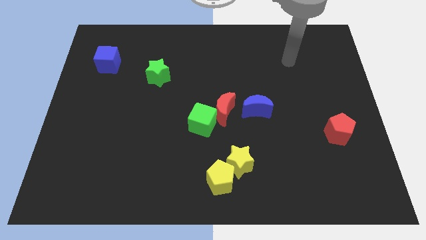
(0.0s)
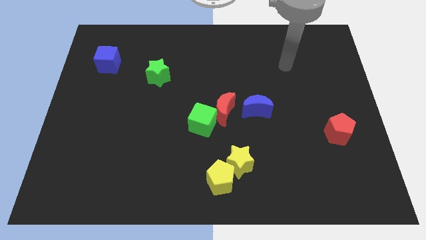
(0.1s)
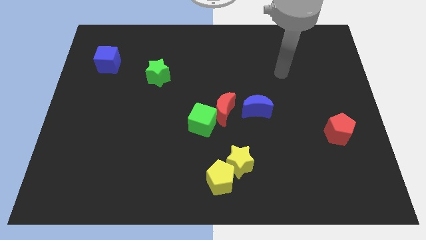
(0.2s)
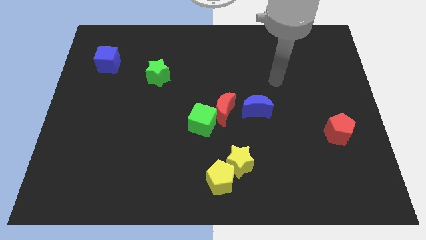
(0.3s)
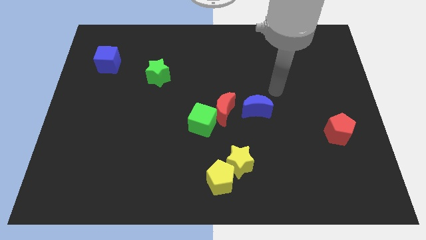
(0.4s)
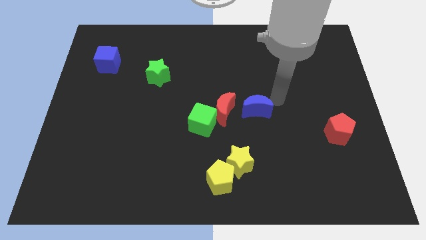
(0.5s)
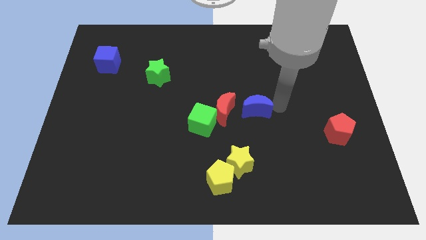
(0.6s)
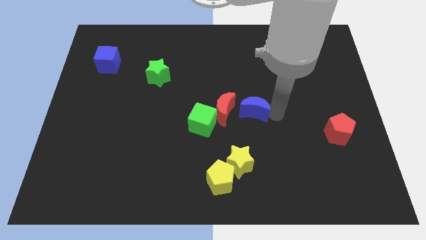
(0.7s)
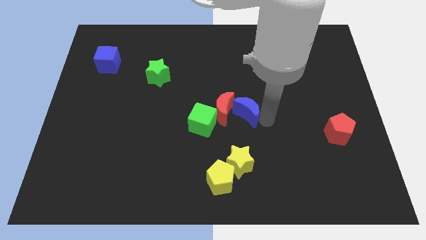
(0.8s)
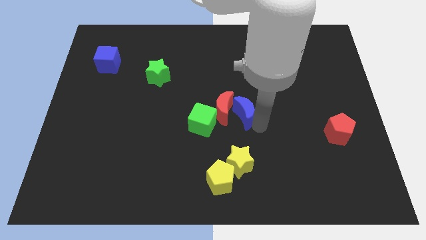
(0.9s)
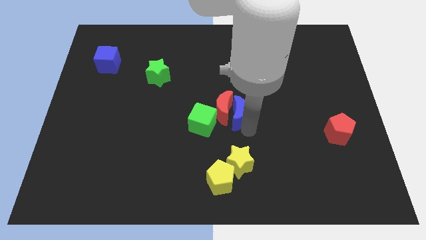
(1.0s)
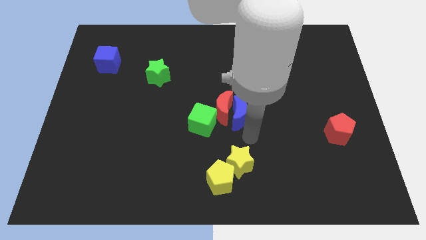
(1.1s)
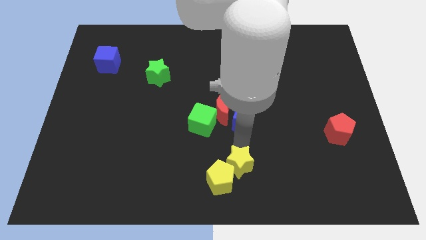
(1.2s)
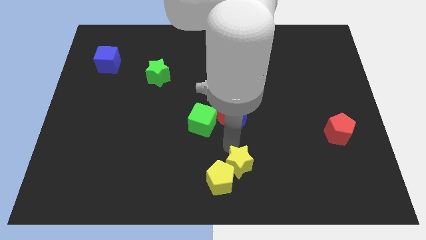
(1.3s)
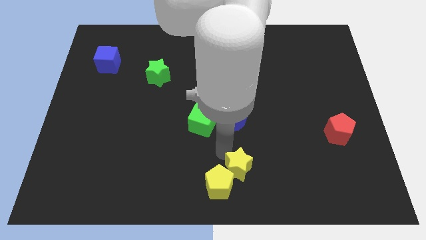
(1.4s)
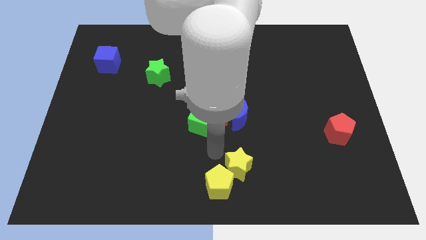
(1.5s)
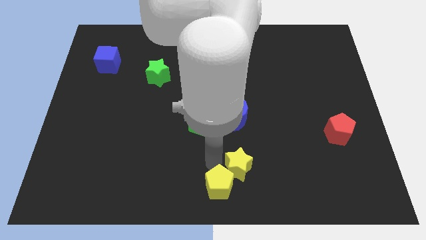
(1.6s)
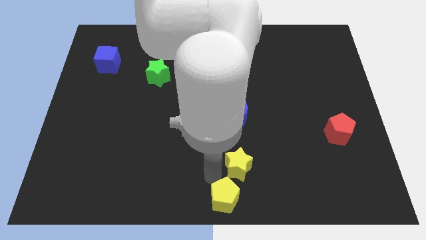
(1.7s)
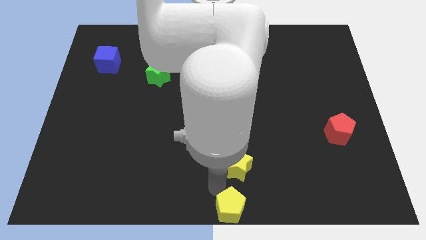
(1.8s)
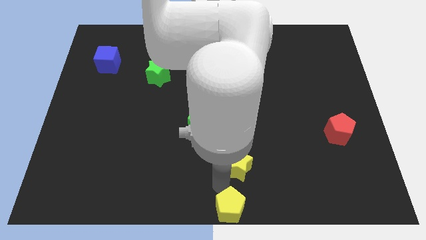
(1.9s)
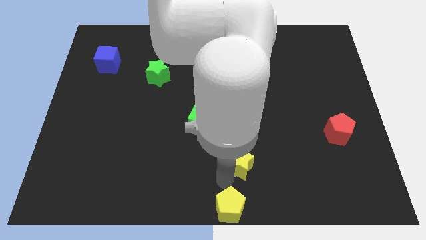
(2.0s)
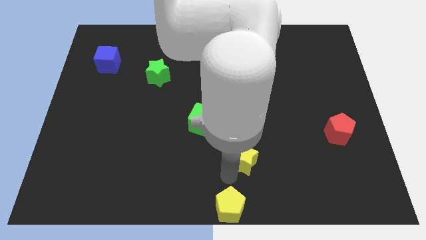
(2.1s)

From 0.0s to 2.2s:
separate the yellow star from the yellow pentagon

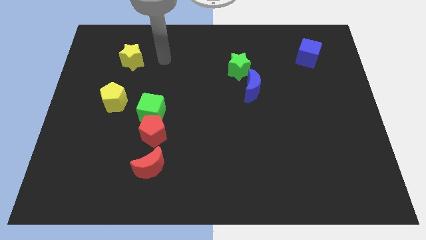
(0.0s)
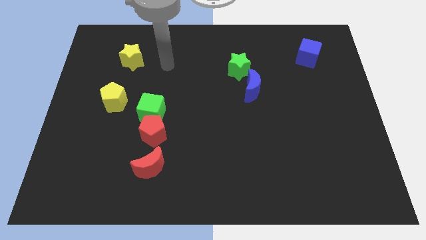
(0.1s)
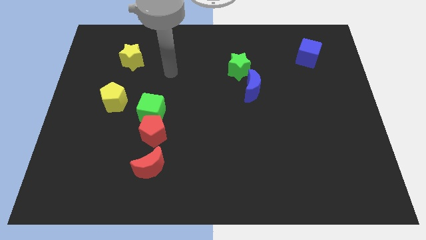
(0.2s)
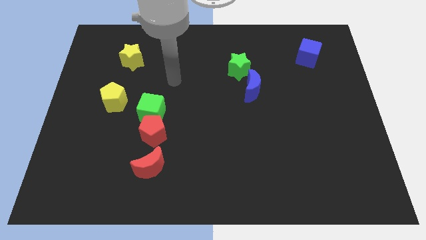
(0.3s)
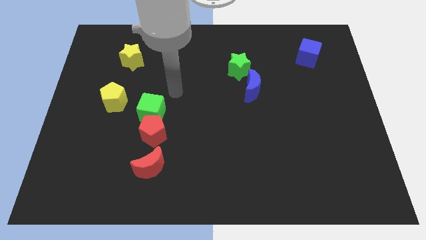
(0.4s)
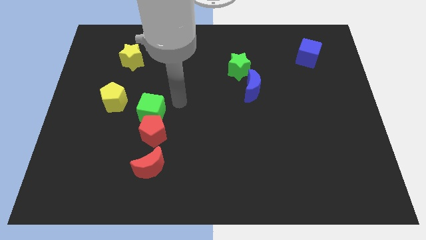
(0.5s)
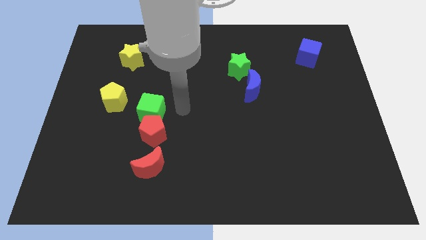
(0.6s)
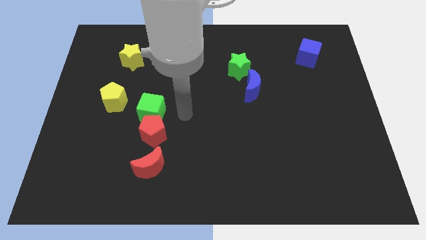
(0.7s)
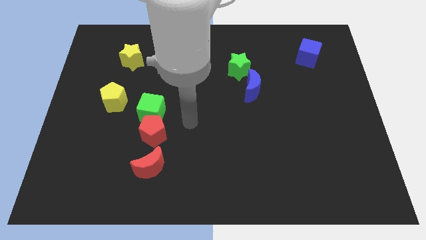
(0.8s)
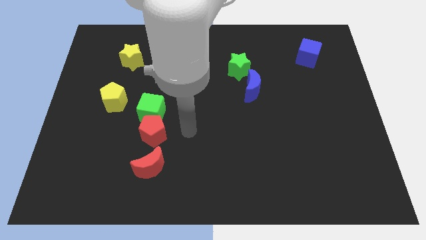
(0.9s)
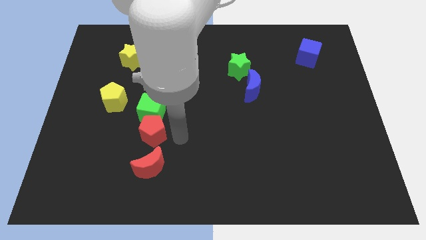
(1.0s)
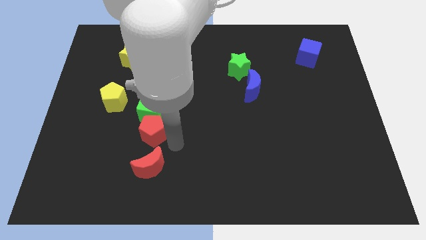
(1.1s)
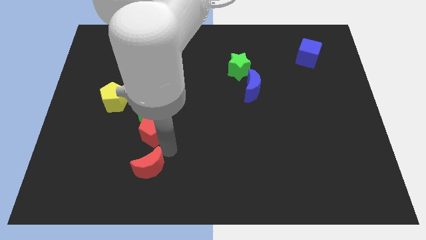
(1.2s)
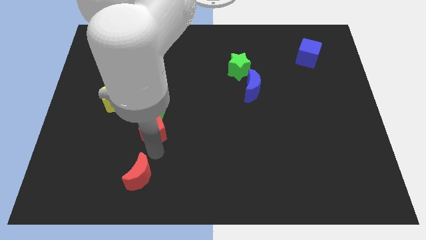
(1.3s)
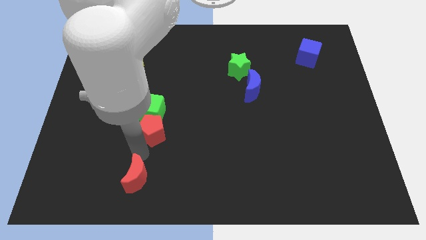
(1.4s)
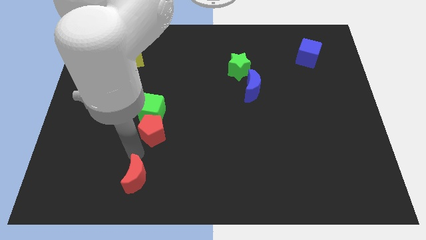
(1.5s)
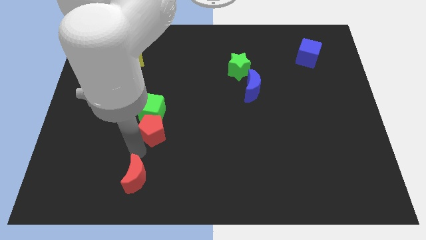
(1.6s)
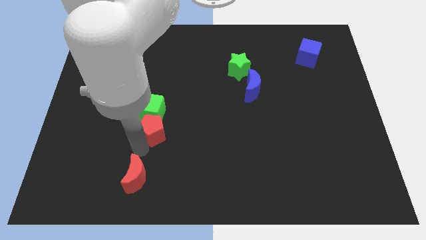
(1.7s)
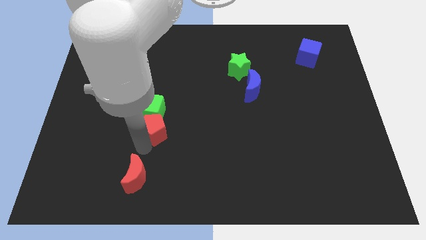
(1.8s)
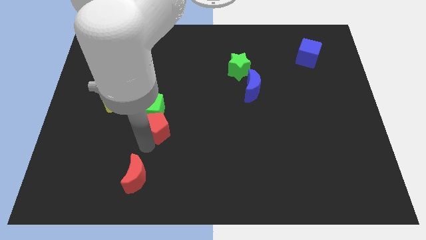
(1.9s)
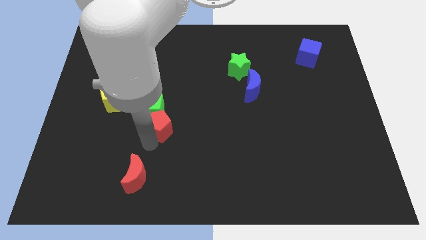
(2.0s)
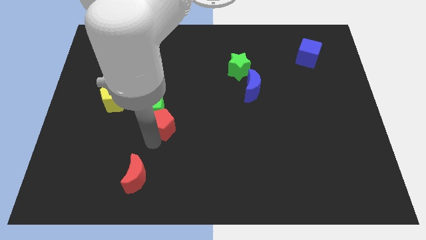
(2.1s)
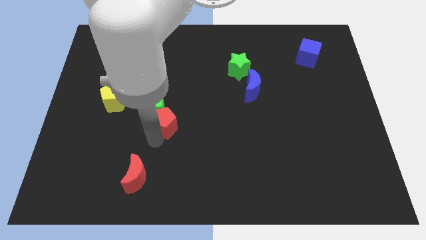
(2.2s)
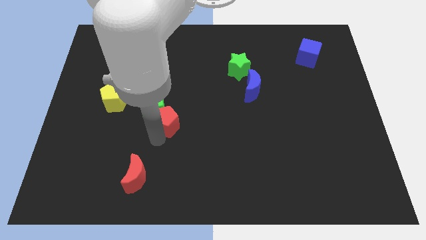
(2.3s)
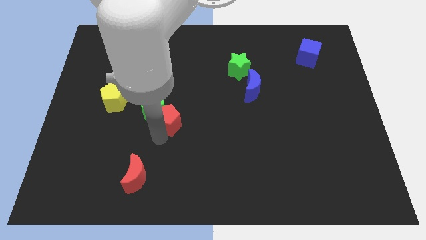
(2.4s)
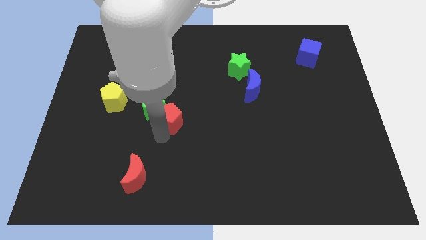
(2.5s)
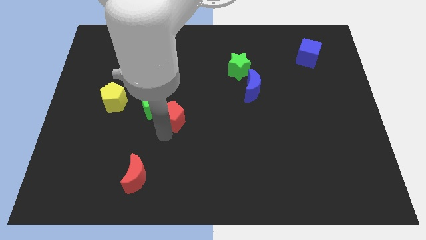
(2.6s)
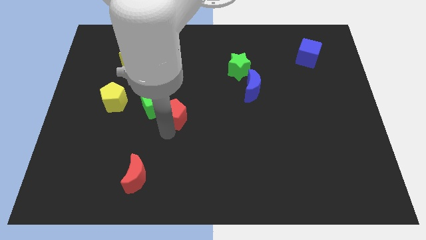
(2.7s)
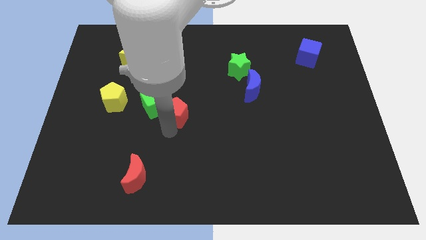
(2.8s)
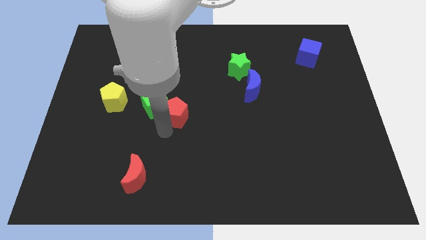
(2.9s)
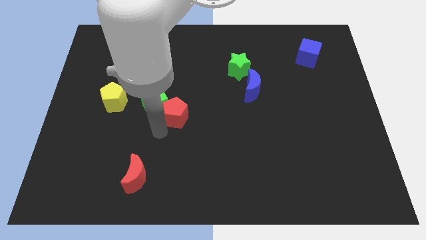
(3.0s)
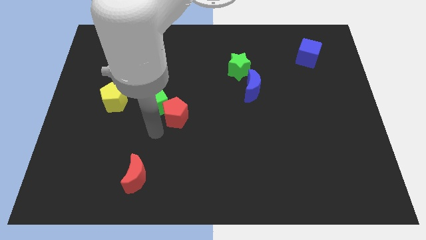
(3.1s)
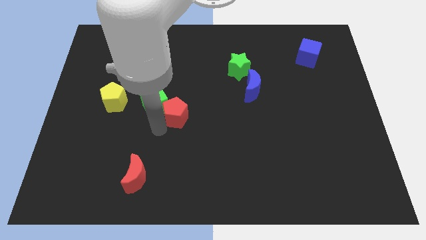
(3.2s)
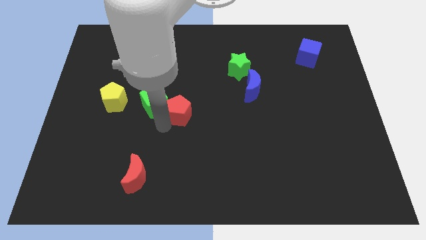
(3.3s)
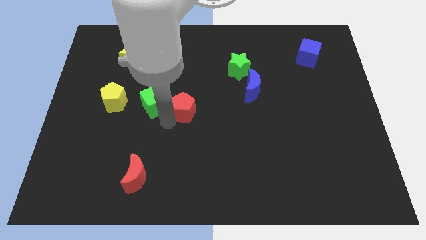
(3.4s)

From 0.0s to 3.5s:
move the red pentagon away from the green cube and red moon

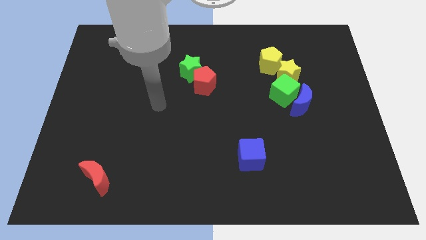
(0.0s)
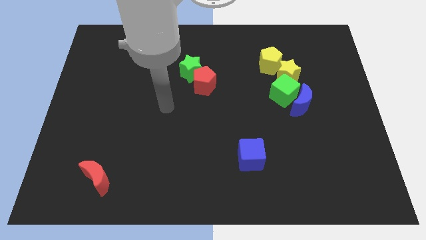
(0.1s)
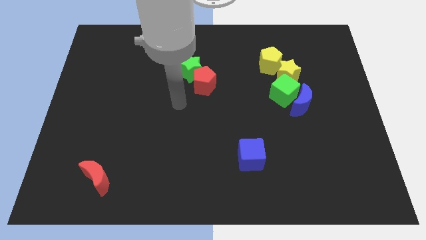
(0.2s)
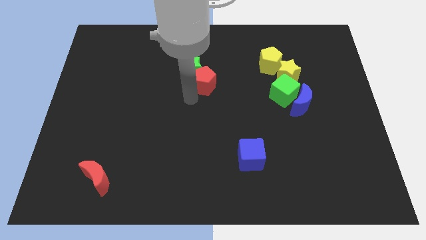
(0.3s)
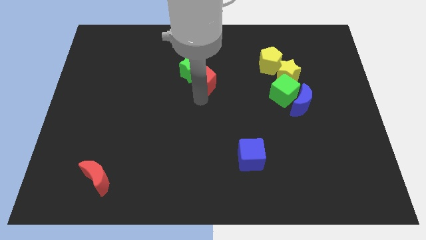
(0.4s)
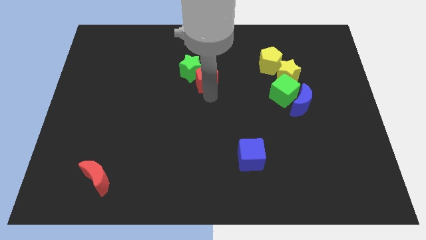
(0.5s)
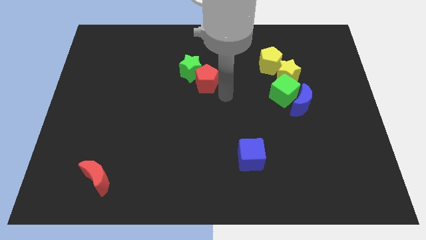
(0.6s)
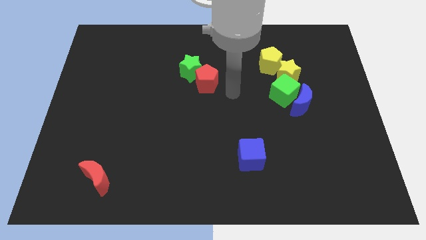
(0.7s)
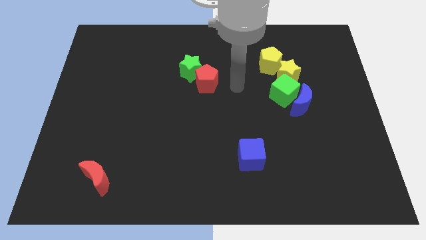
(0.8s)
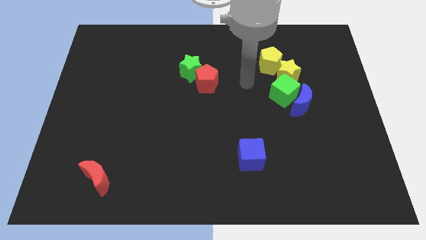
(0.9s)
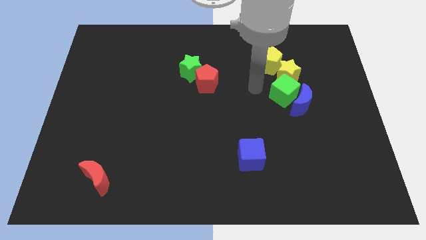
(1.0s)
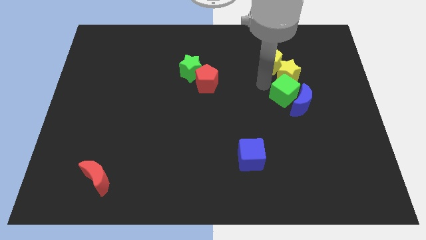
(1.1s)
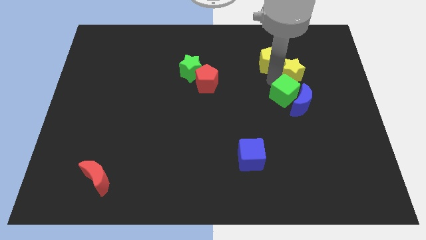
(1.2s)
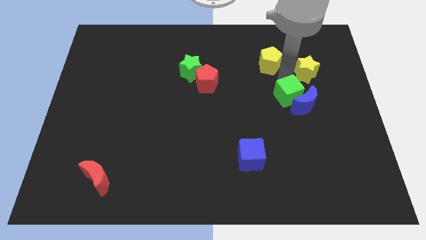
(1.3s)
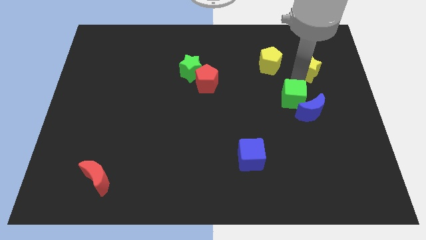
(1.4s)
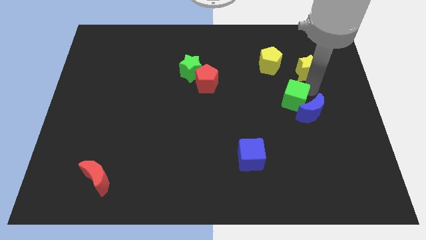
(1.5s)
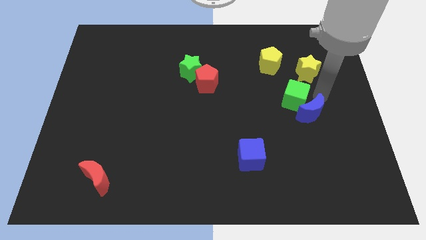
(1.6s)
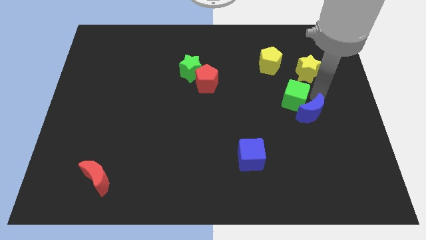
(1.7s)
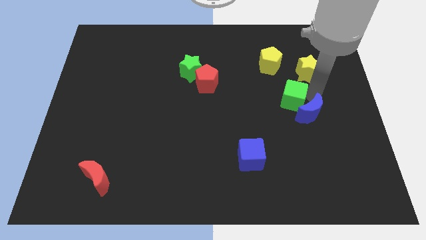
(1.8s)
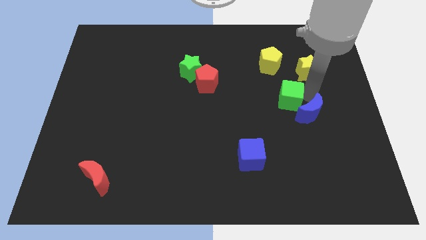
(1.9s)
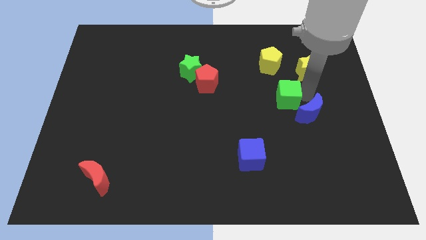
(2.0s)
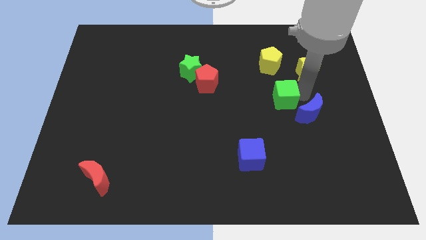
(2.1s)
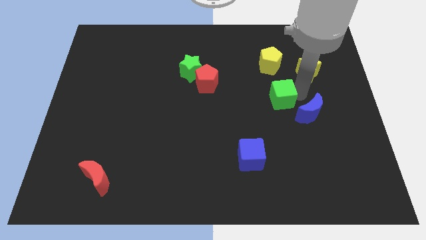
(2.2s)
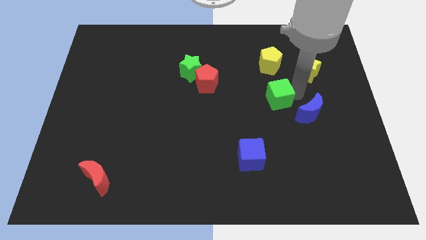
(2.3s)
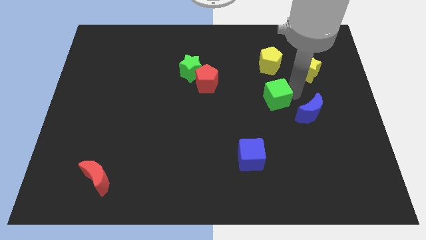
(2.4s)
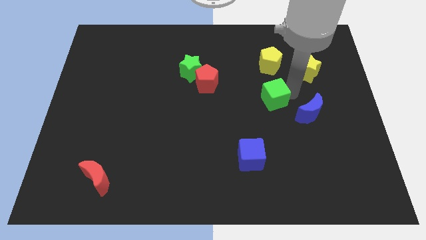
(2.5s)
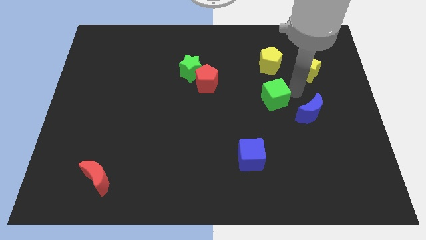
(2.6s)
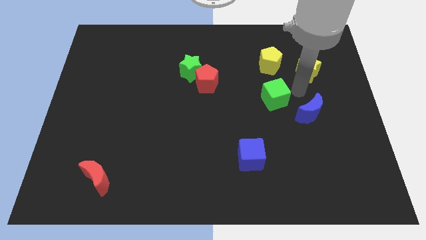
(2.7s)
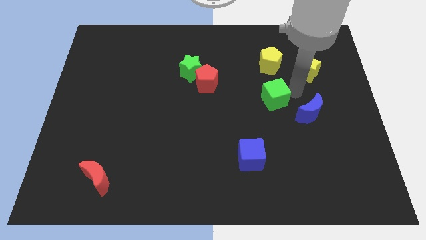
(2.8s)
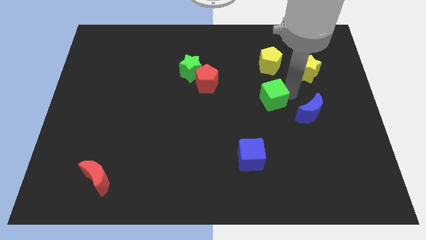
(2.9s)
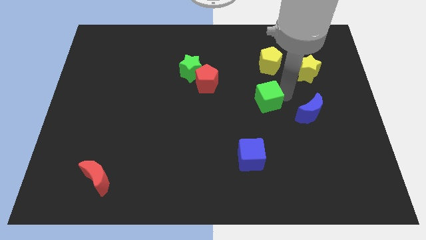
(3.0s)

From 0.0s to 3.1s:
pull the green cube apart from the blue moon and yellow star

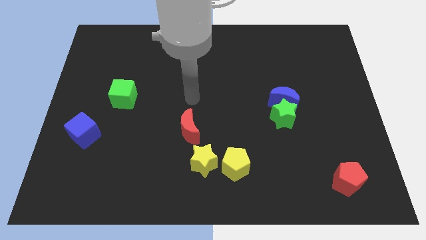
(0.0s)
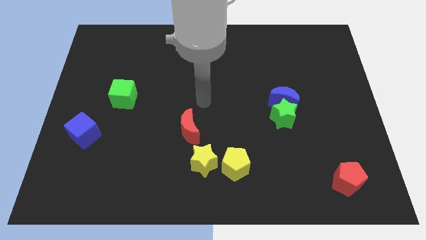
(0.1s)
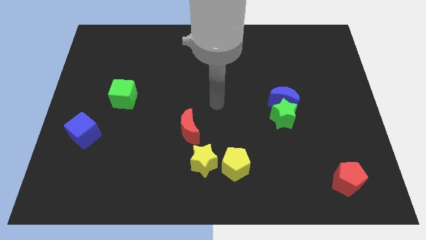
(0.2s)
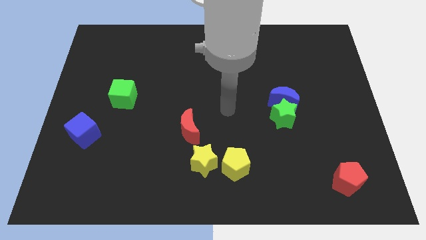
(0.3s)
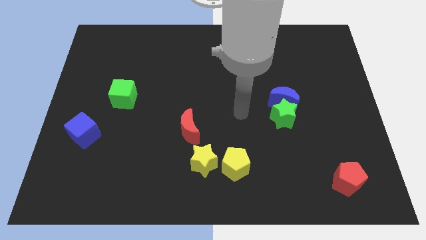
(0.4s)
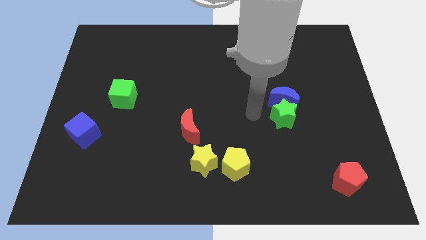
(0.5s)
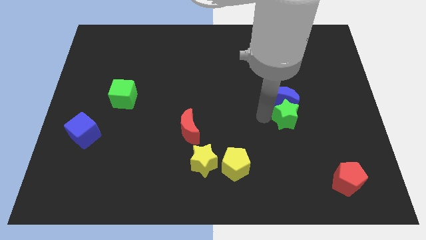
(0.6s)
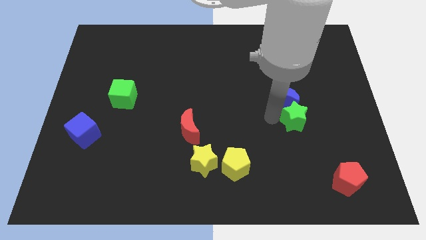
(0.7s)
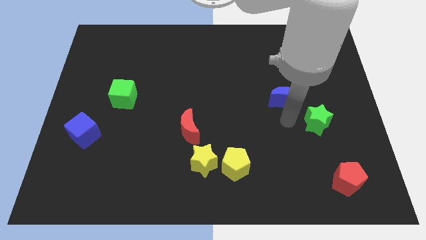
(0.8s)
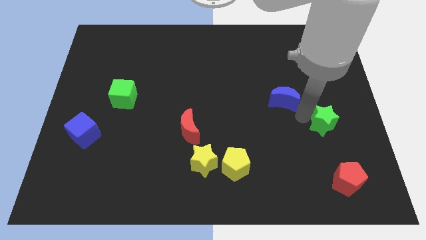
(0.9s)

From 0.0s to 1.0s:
separate the blue moon from the green star
